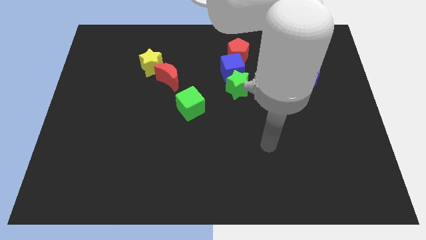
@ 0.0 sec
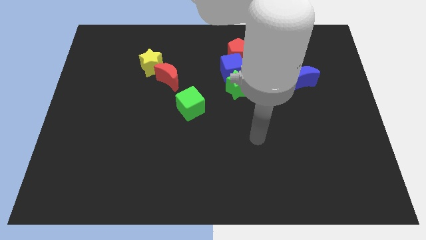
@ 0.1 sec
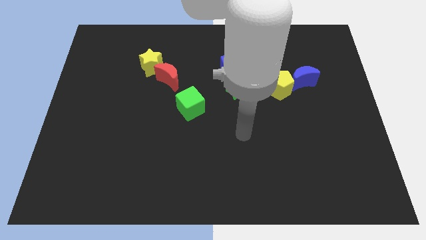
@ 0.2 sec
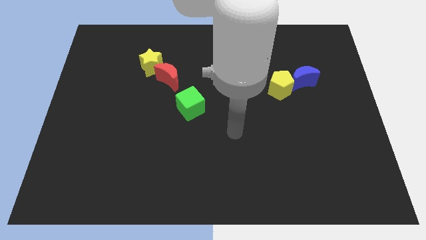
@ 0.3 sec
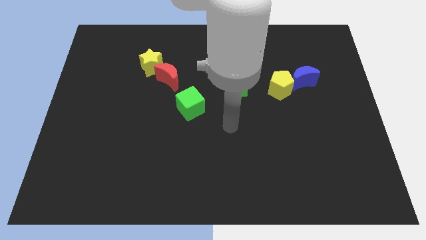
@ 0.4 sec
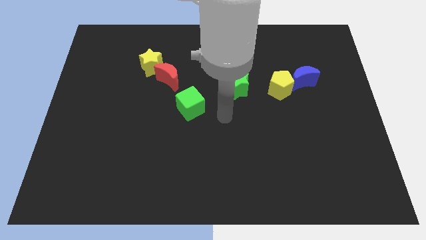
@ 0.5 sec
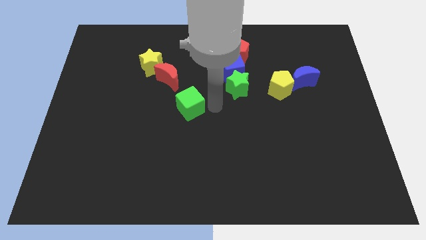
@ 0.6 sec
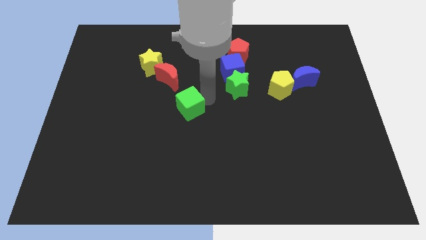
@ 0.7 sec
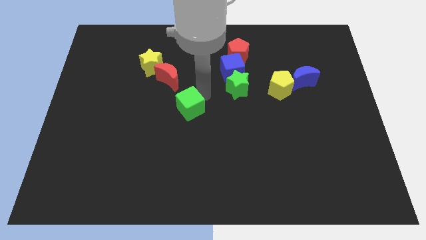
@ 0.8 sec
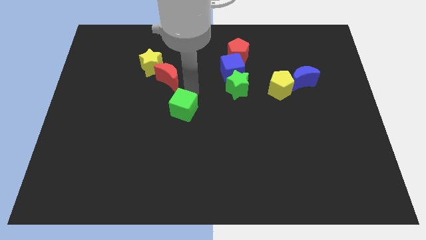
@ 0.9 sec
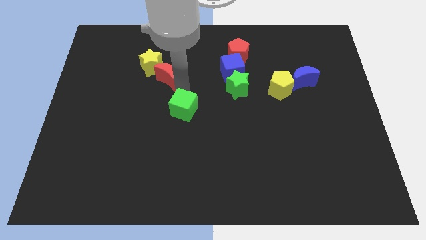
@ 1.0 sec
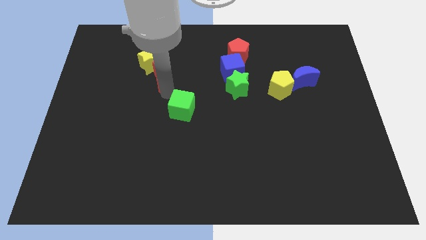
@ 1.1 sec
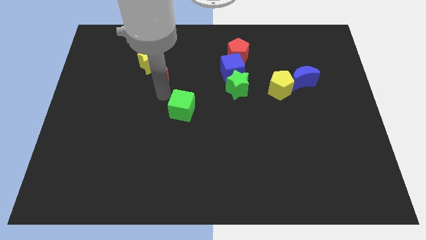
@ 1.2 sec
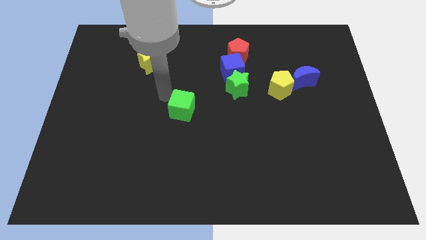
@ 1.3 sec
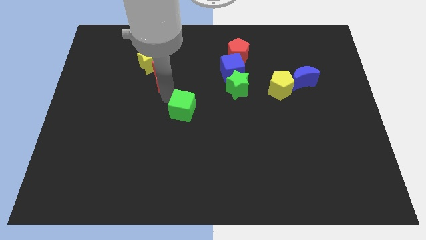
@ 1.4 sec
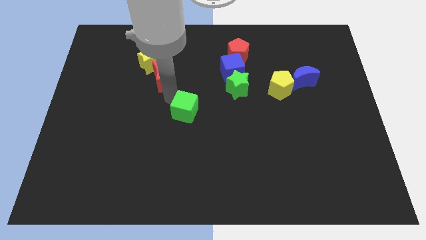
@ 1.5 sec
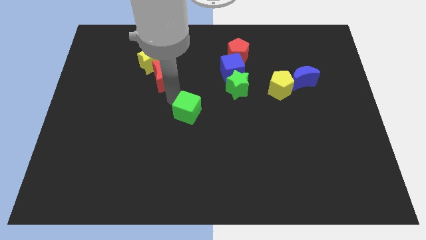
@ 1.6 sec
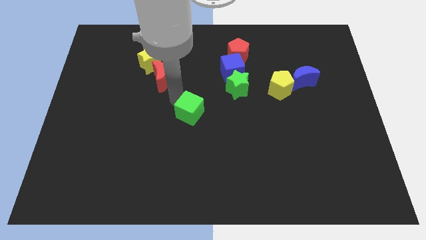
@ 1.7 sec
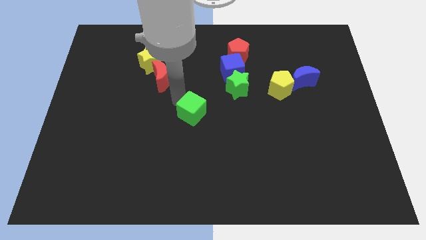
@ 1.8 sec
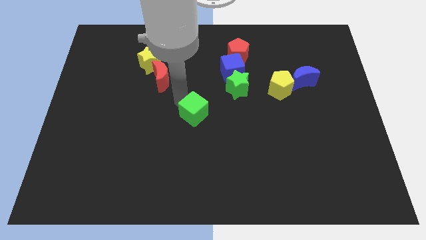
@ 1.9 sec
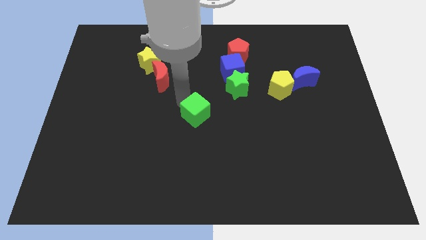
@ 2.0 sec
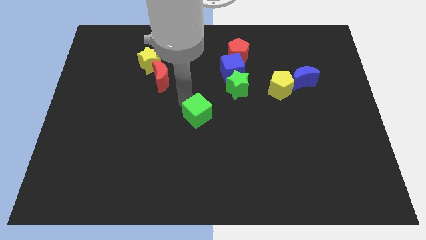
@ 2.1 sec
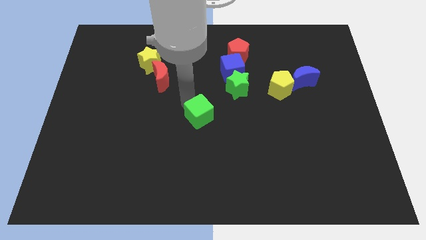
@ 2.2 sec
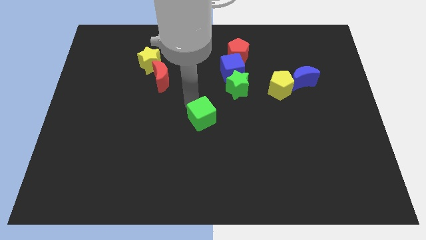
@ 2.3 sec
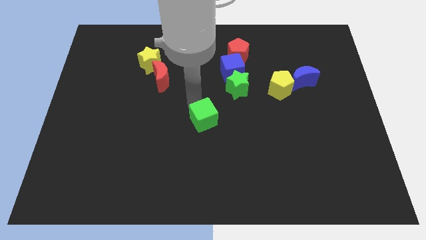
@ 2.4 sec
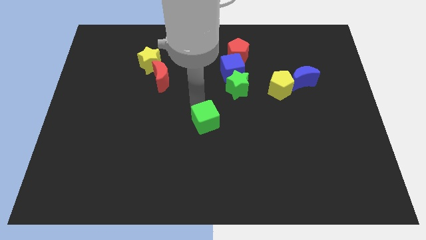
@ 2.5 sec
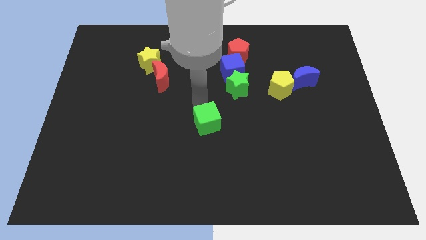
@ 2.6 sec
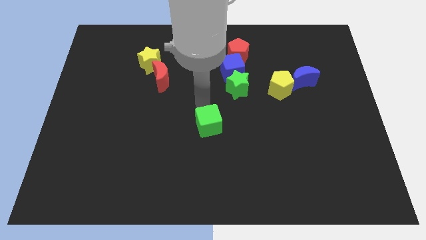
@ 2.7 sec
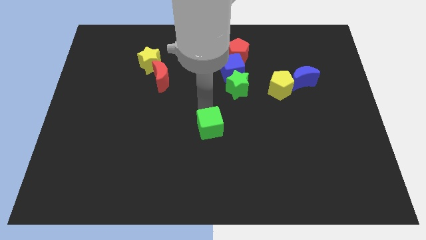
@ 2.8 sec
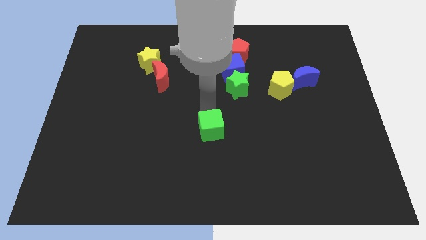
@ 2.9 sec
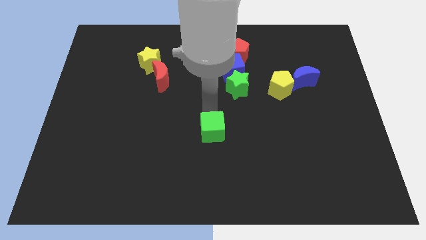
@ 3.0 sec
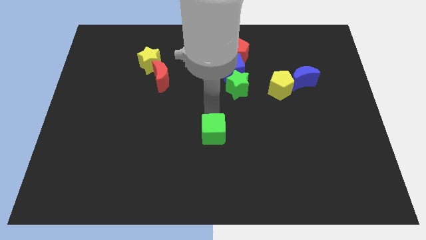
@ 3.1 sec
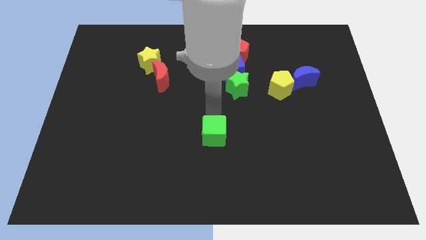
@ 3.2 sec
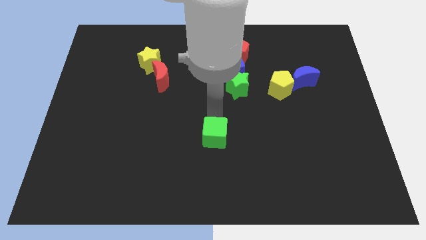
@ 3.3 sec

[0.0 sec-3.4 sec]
slightly push the green cube down

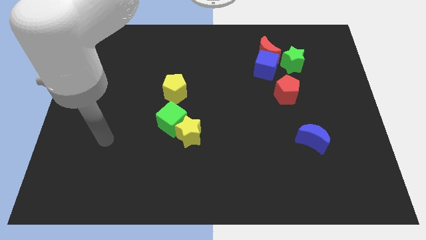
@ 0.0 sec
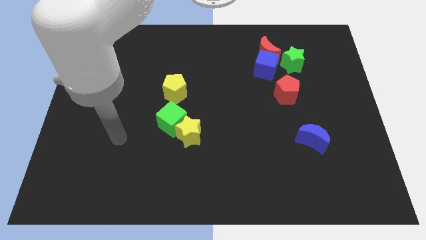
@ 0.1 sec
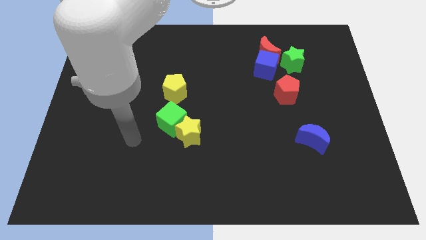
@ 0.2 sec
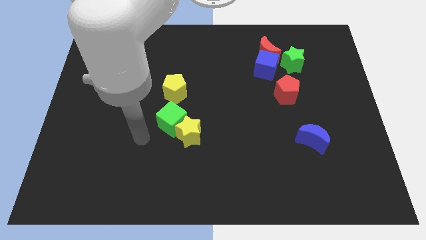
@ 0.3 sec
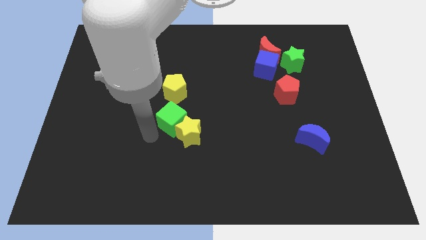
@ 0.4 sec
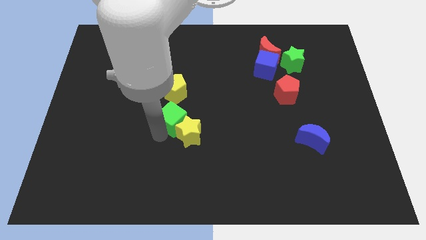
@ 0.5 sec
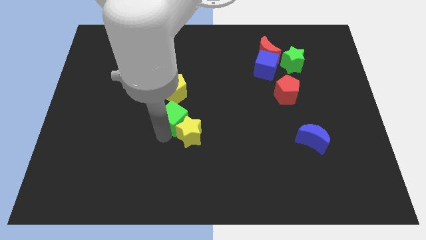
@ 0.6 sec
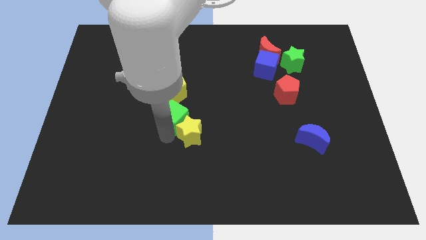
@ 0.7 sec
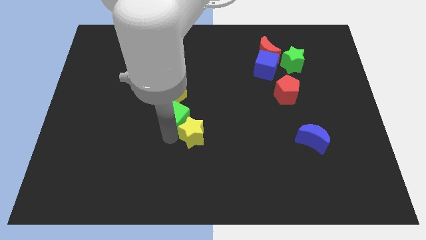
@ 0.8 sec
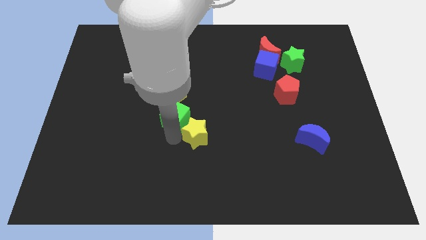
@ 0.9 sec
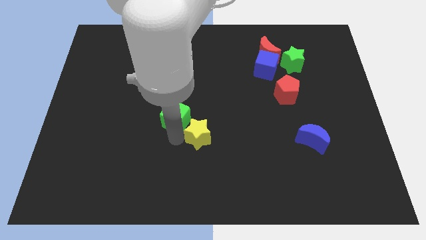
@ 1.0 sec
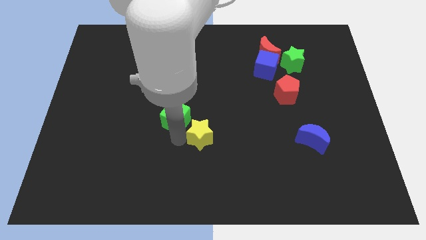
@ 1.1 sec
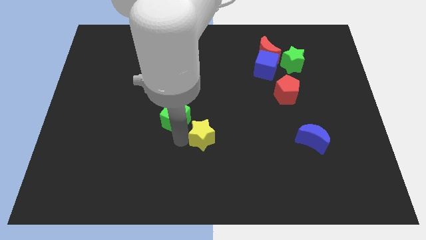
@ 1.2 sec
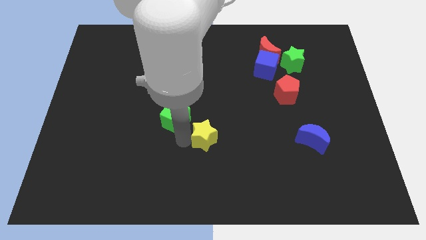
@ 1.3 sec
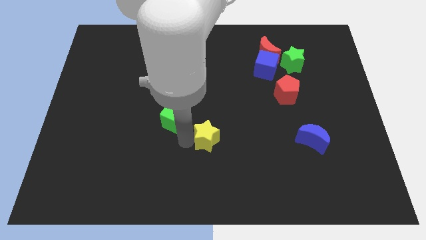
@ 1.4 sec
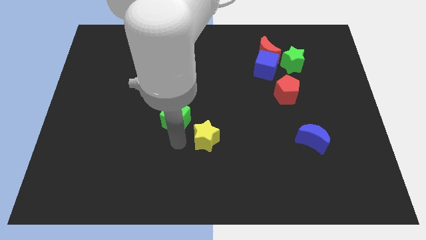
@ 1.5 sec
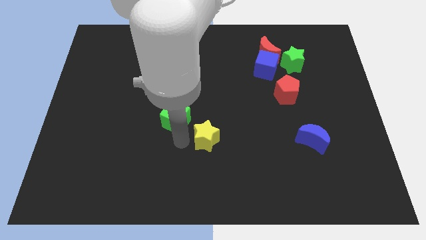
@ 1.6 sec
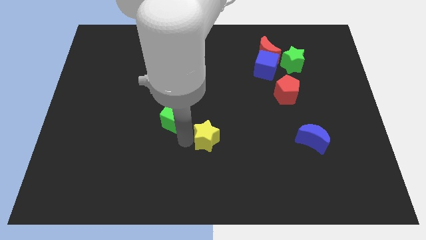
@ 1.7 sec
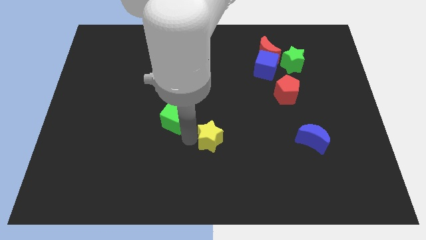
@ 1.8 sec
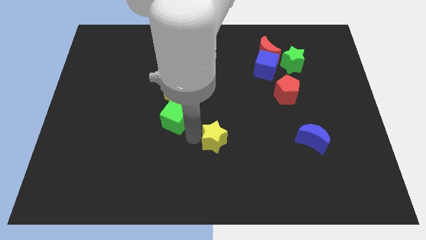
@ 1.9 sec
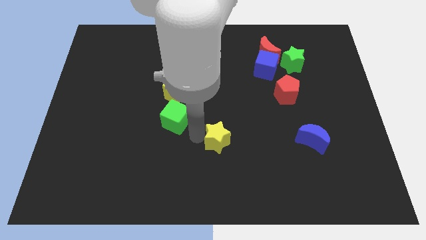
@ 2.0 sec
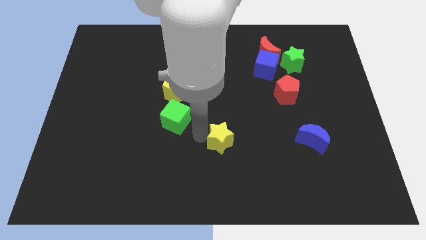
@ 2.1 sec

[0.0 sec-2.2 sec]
push the yellow star to the right a little bit

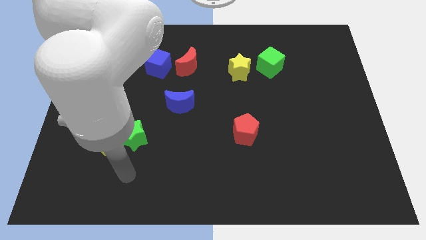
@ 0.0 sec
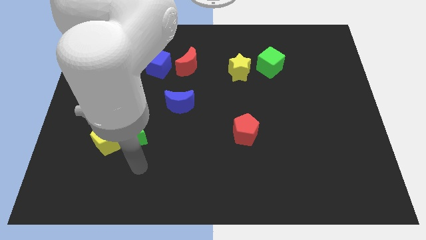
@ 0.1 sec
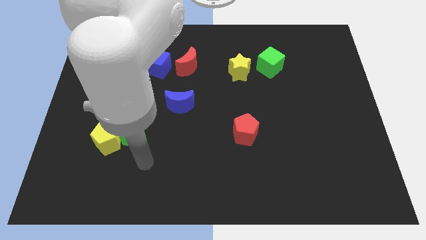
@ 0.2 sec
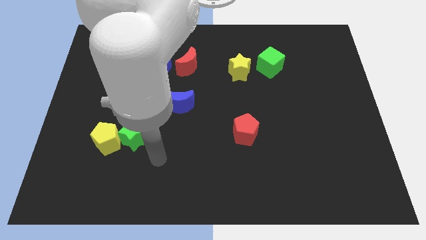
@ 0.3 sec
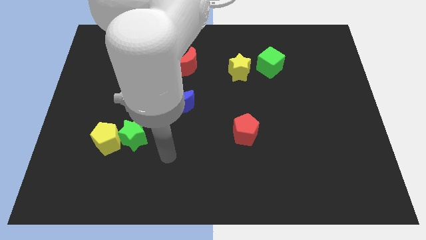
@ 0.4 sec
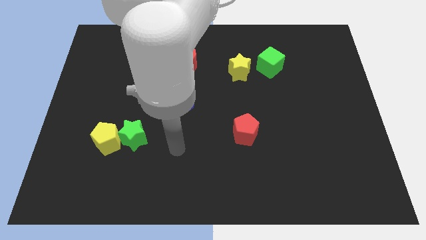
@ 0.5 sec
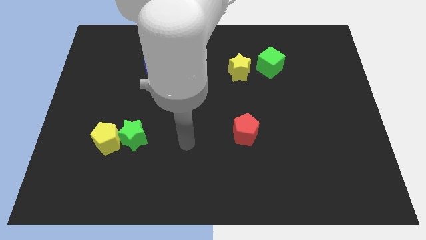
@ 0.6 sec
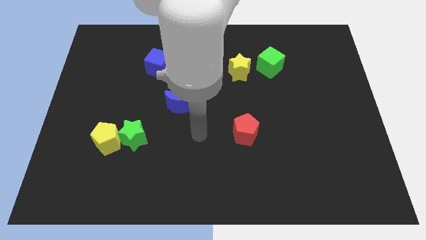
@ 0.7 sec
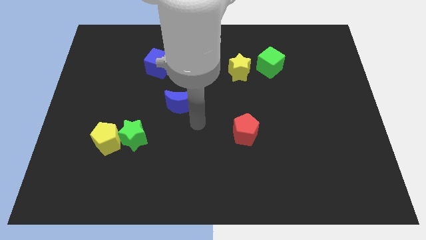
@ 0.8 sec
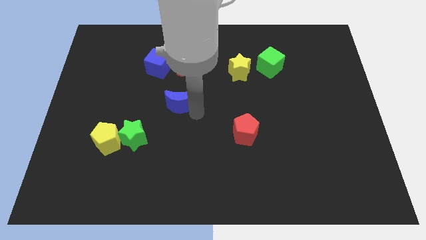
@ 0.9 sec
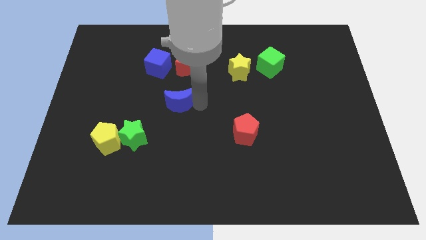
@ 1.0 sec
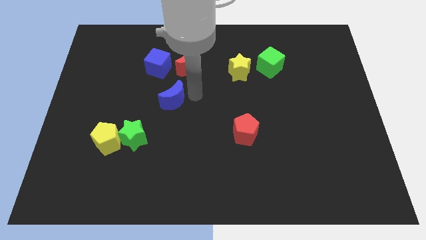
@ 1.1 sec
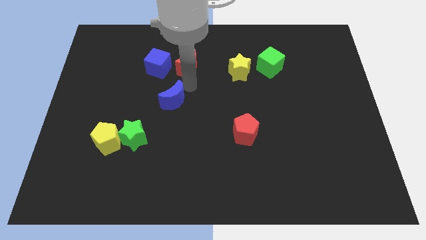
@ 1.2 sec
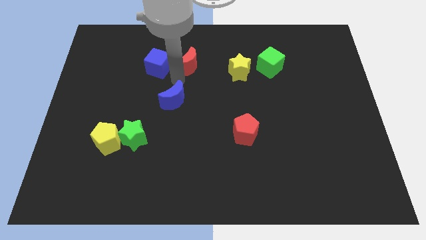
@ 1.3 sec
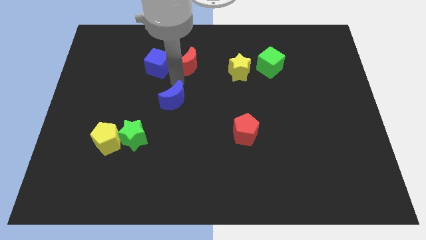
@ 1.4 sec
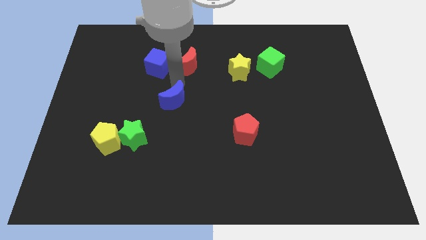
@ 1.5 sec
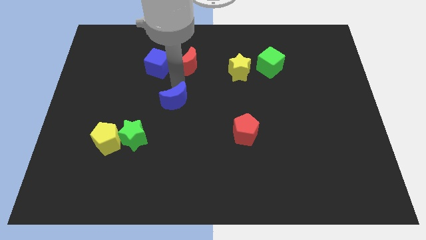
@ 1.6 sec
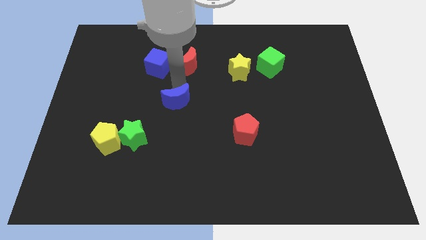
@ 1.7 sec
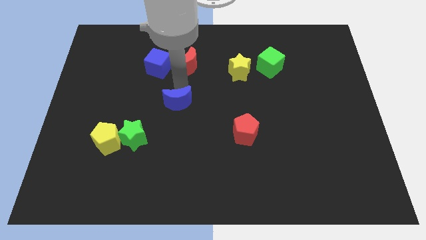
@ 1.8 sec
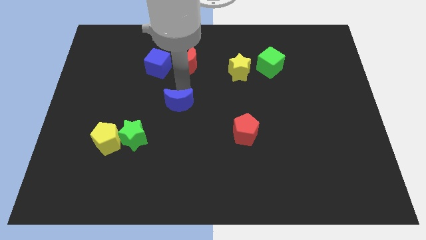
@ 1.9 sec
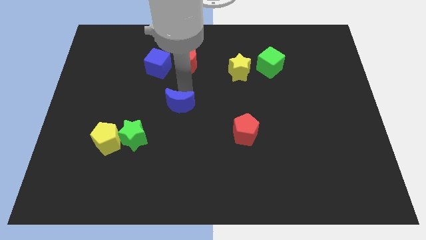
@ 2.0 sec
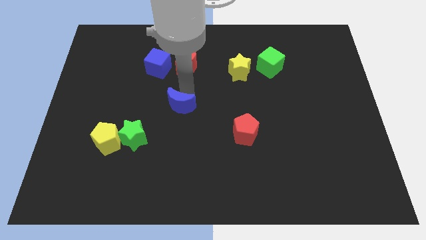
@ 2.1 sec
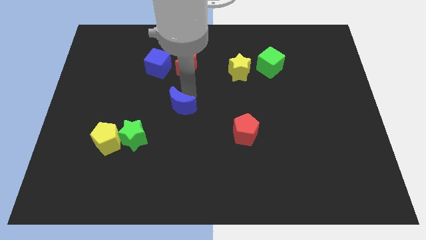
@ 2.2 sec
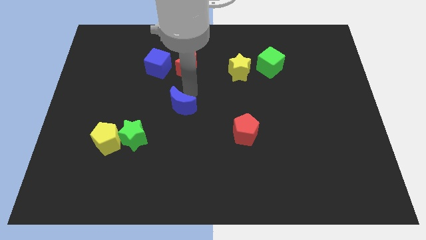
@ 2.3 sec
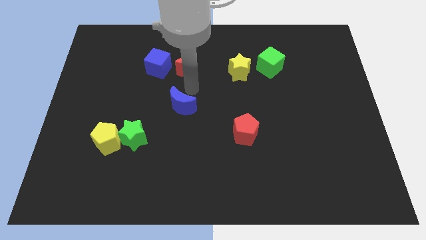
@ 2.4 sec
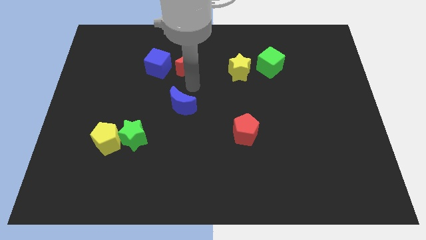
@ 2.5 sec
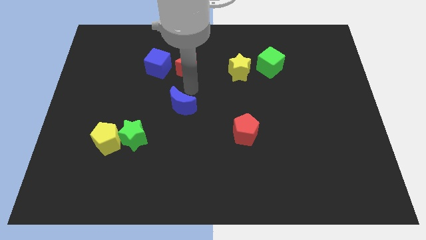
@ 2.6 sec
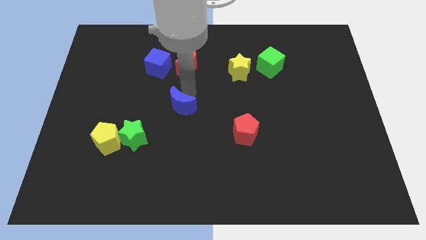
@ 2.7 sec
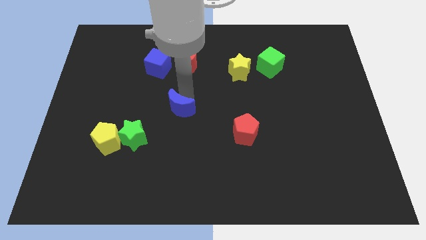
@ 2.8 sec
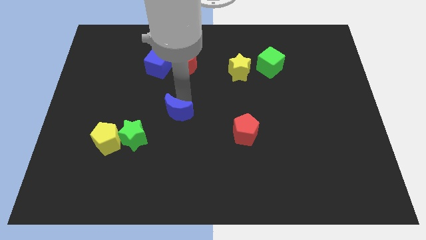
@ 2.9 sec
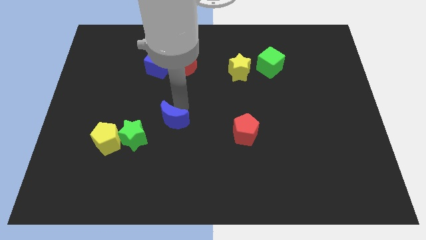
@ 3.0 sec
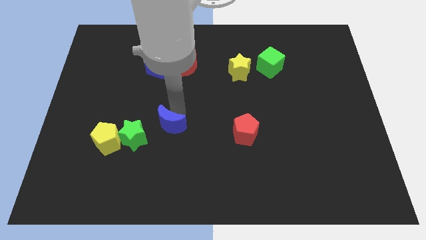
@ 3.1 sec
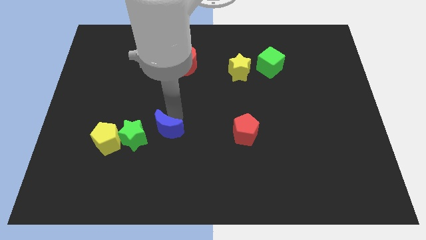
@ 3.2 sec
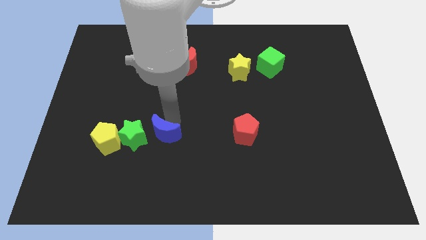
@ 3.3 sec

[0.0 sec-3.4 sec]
slightly push the blue moon diagonally down and to the left
